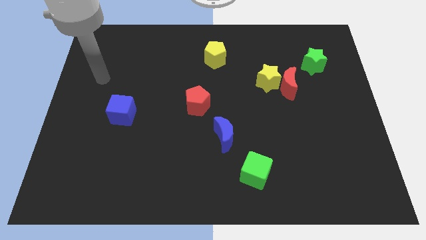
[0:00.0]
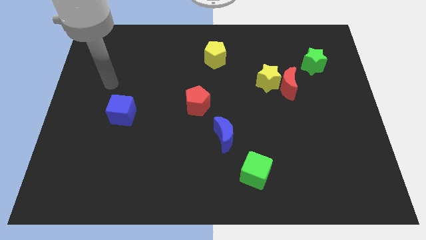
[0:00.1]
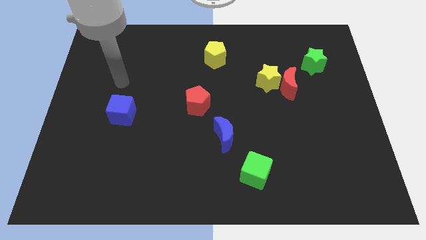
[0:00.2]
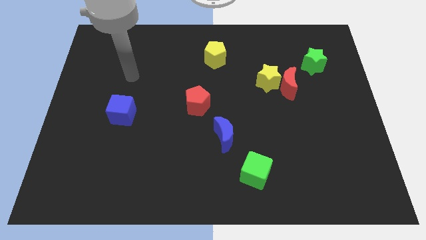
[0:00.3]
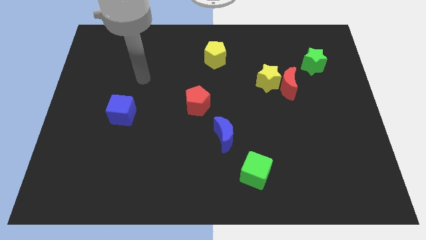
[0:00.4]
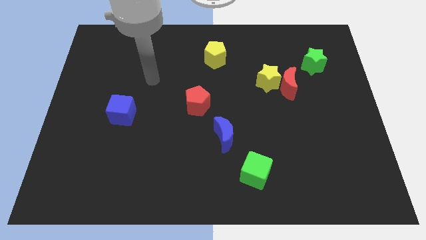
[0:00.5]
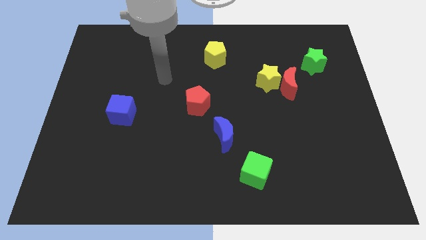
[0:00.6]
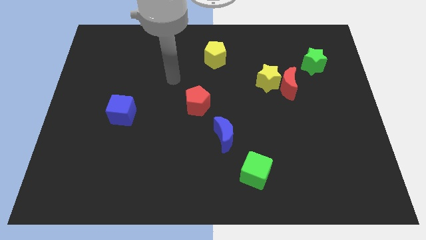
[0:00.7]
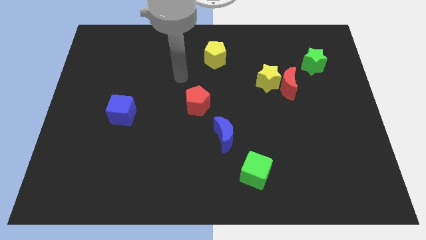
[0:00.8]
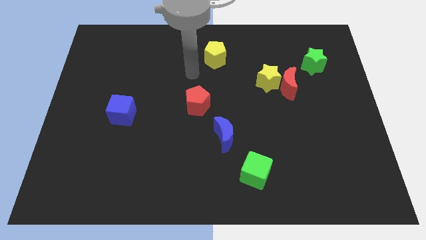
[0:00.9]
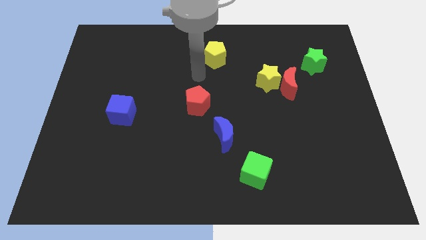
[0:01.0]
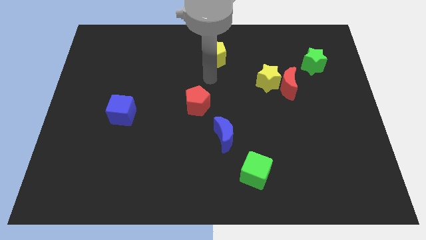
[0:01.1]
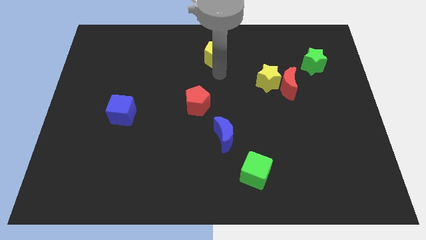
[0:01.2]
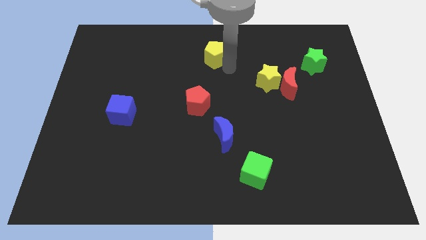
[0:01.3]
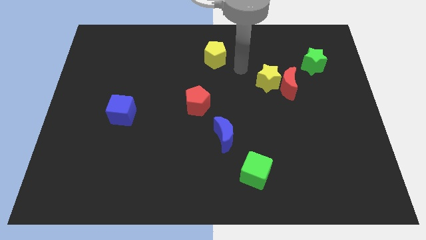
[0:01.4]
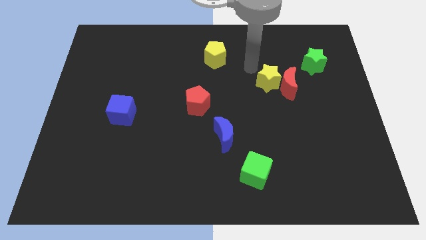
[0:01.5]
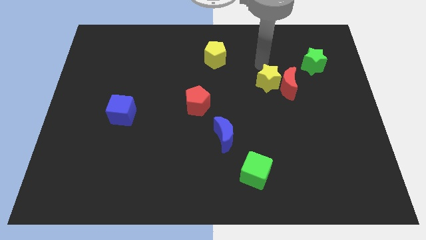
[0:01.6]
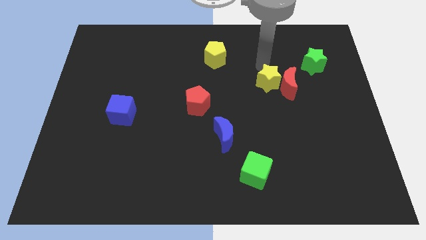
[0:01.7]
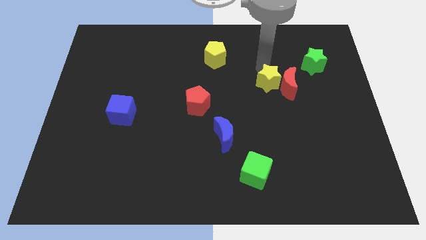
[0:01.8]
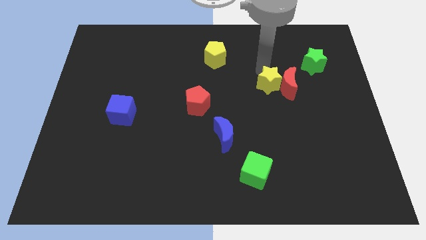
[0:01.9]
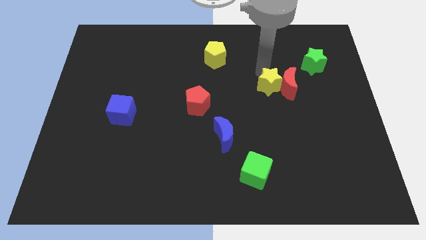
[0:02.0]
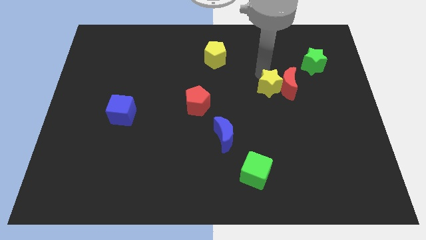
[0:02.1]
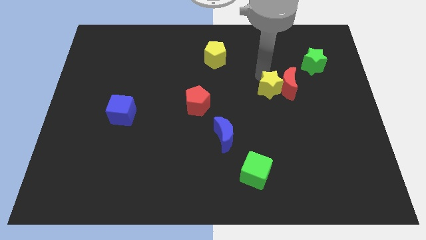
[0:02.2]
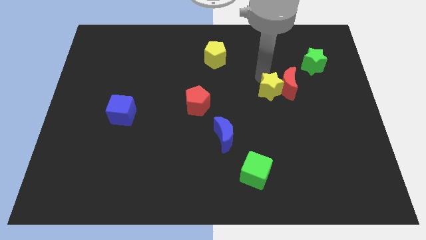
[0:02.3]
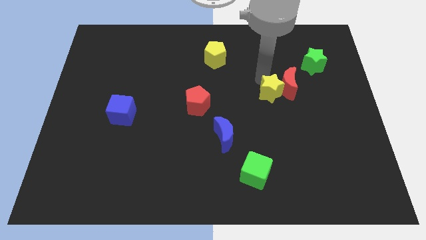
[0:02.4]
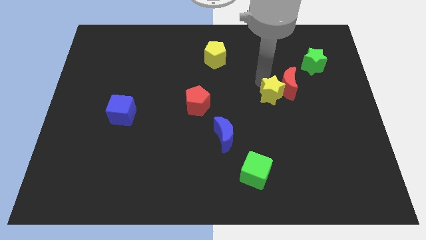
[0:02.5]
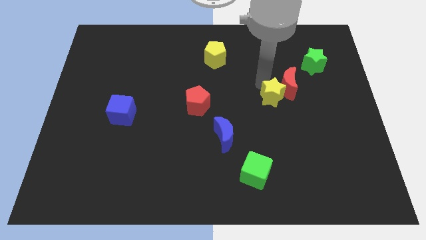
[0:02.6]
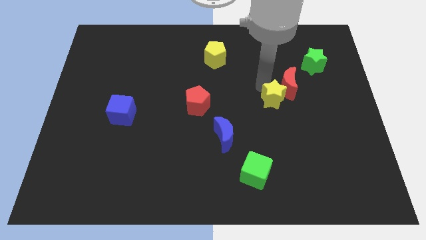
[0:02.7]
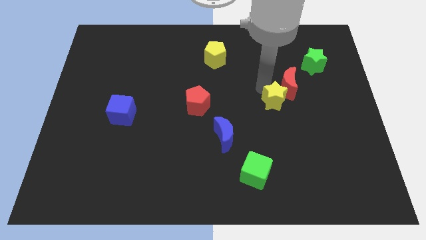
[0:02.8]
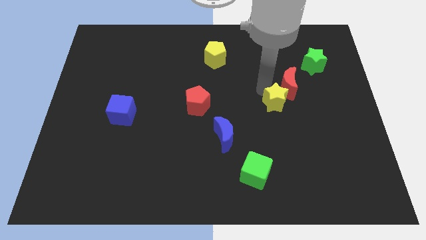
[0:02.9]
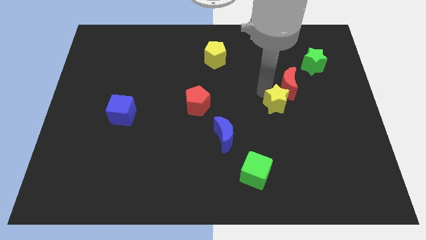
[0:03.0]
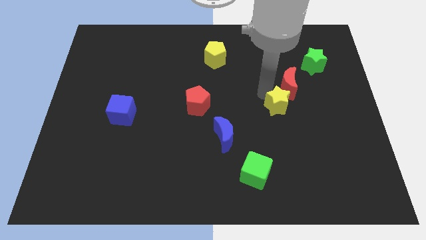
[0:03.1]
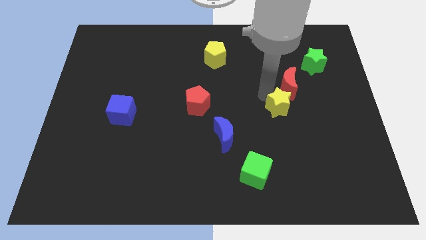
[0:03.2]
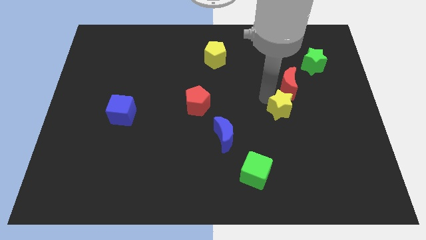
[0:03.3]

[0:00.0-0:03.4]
slide the yellow star slightly down and then to the right

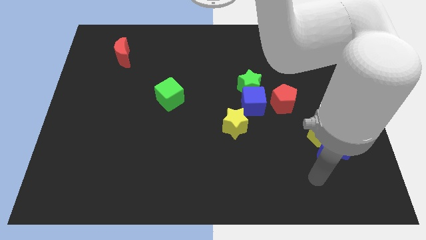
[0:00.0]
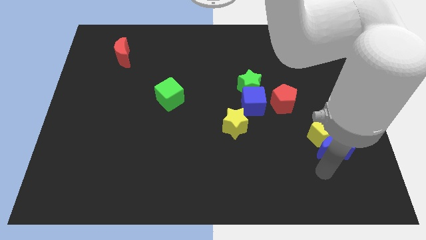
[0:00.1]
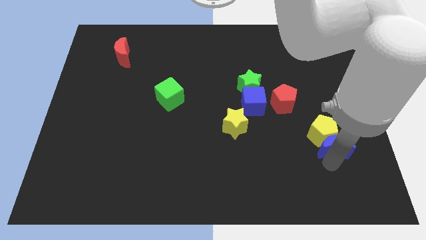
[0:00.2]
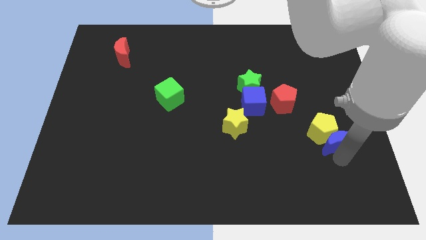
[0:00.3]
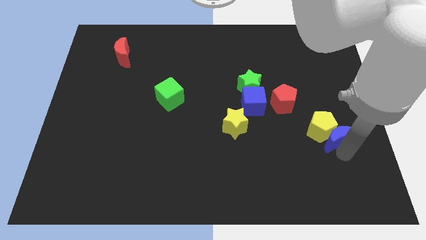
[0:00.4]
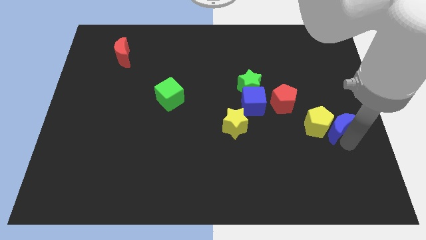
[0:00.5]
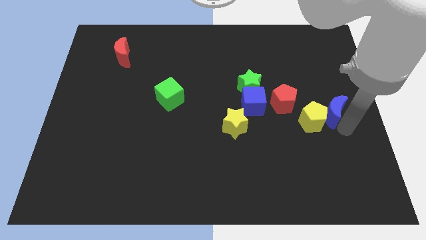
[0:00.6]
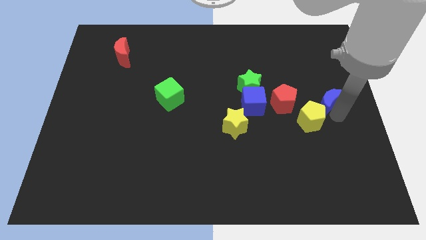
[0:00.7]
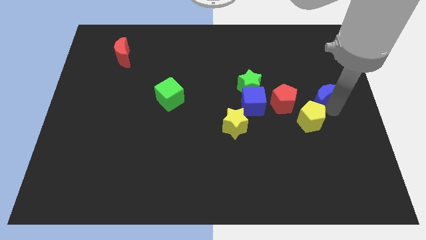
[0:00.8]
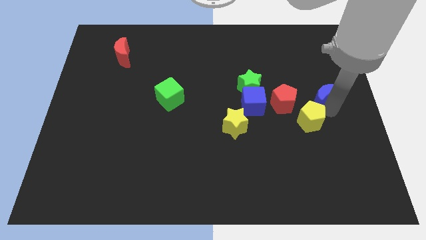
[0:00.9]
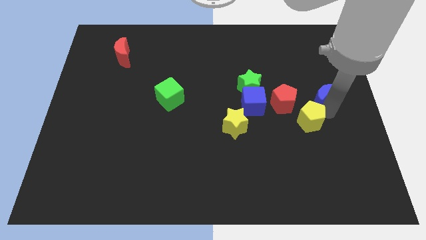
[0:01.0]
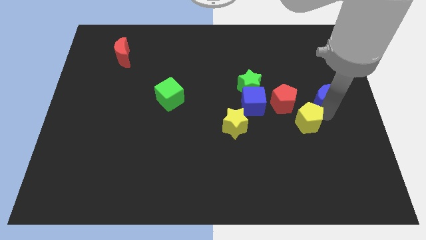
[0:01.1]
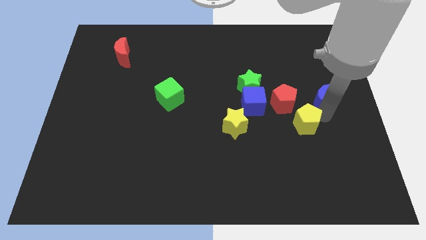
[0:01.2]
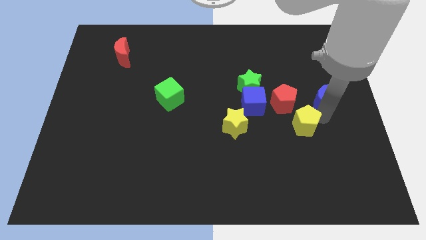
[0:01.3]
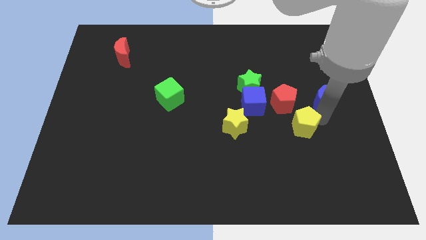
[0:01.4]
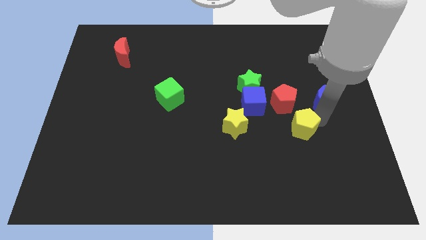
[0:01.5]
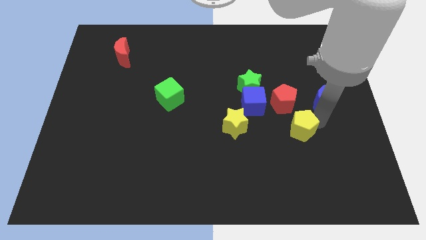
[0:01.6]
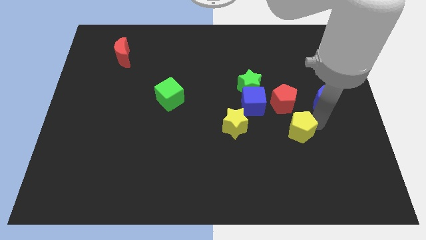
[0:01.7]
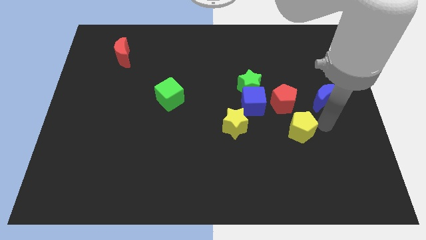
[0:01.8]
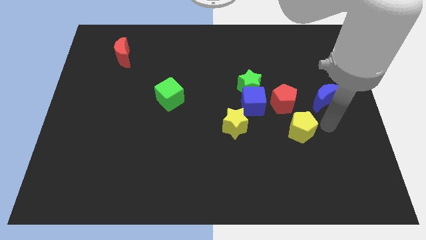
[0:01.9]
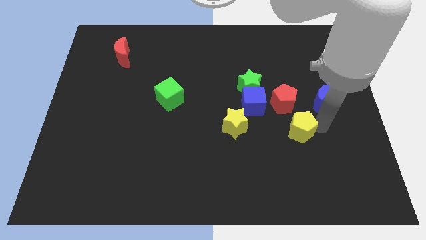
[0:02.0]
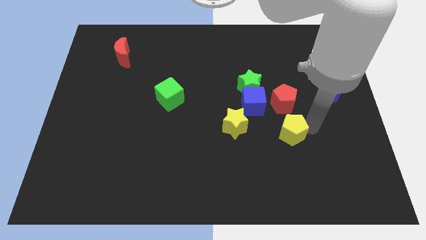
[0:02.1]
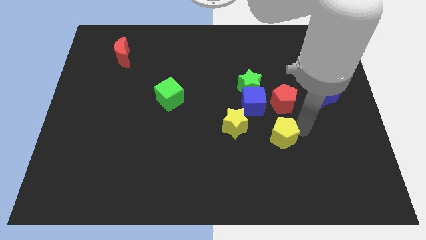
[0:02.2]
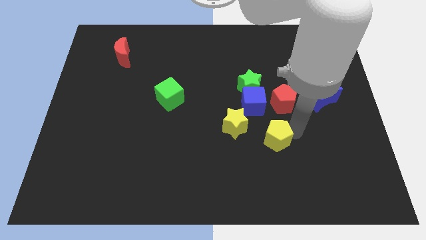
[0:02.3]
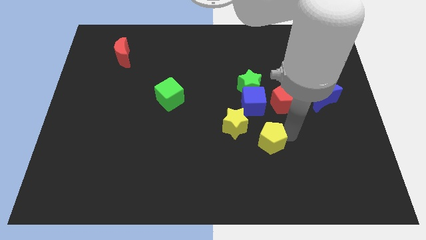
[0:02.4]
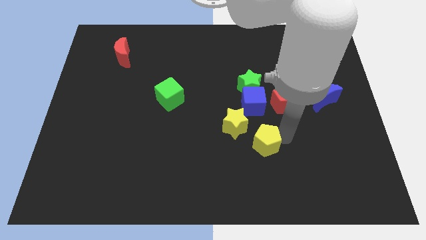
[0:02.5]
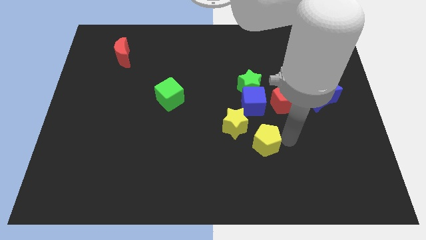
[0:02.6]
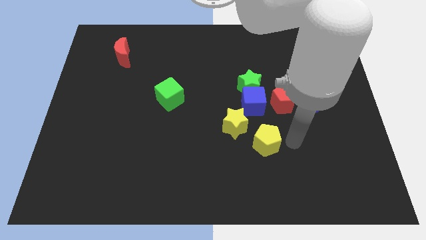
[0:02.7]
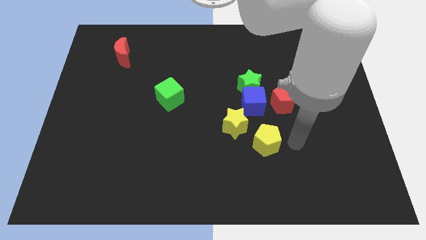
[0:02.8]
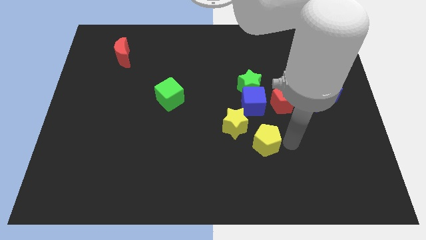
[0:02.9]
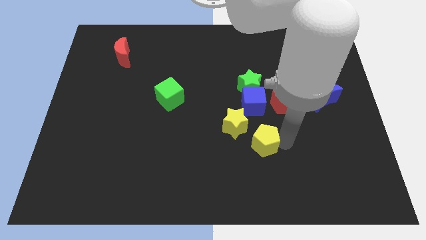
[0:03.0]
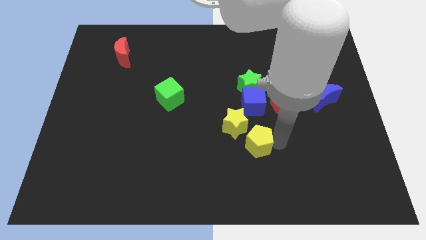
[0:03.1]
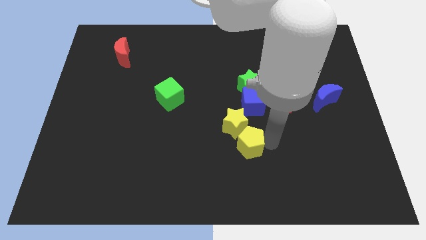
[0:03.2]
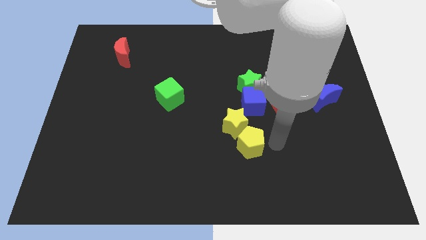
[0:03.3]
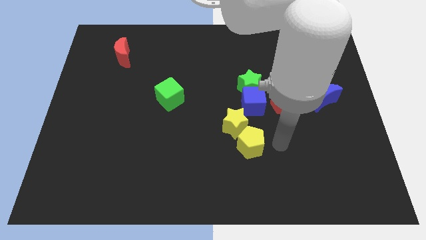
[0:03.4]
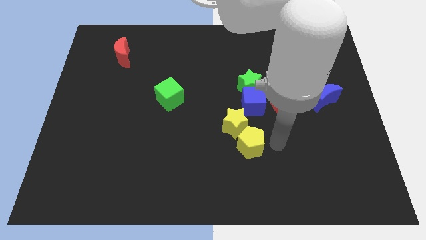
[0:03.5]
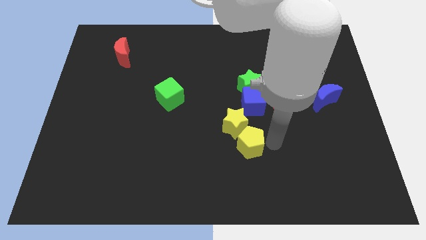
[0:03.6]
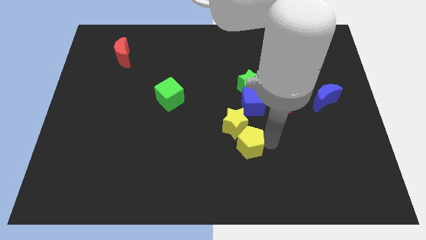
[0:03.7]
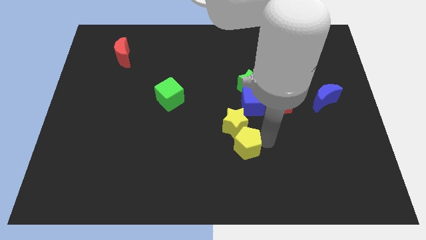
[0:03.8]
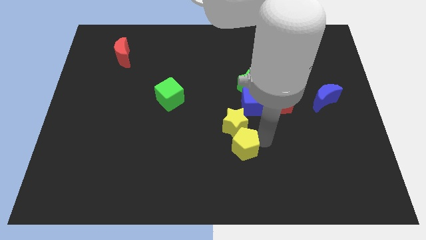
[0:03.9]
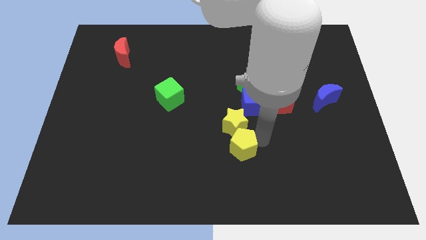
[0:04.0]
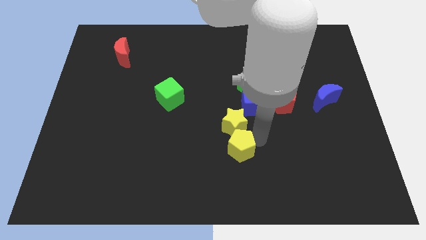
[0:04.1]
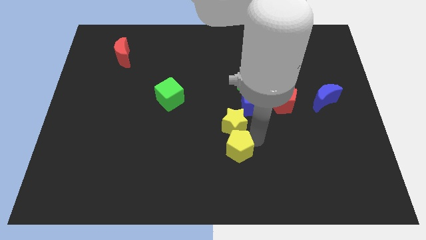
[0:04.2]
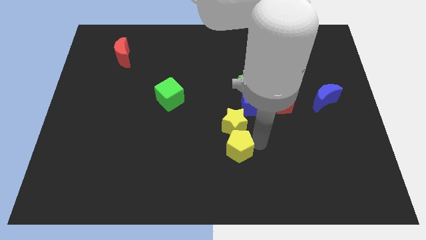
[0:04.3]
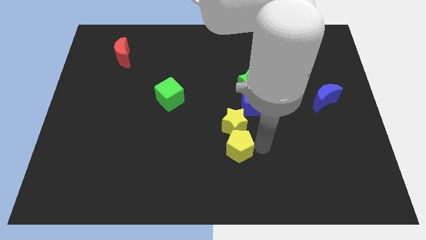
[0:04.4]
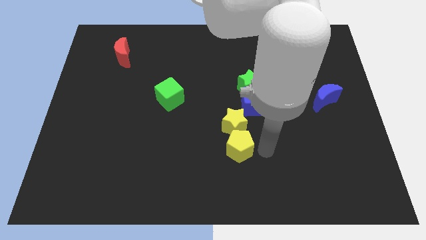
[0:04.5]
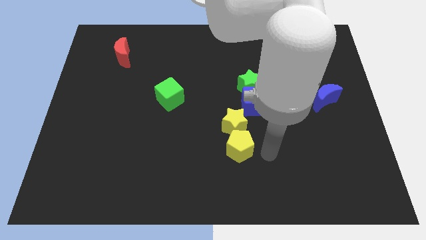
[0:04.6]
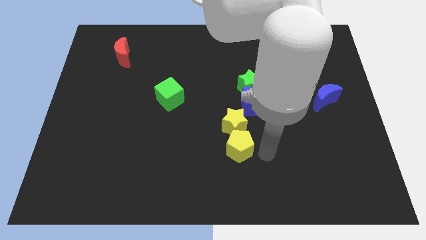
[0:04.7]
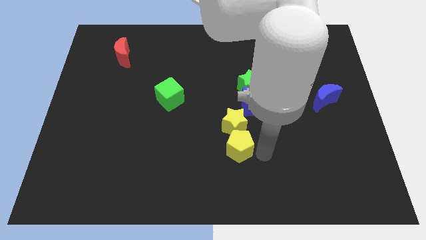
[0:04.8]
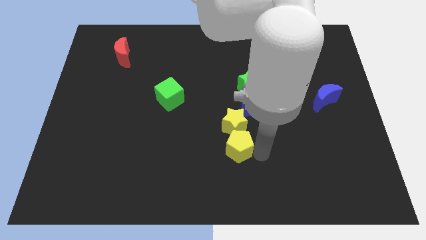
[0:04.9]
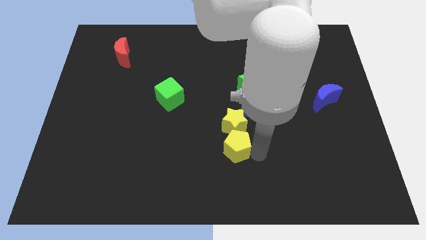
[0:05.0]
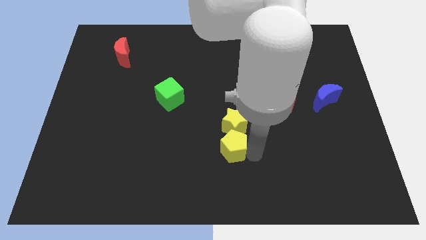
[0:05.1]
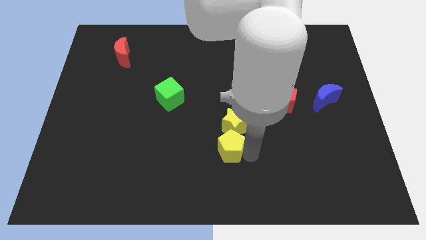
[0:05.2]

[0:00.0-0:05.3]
push the yellow pentagon left
